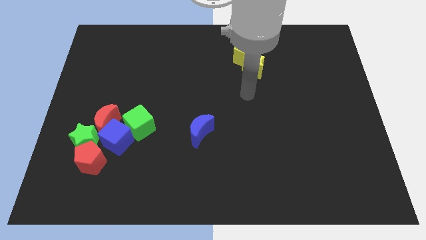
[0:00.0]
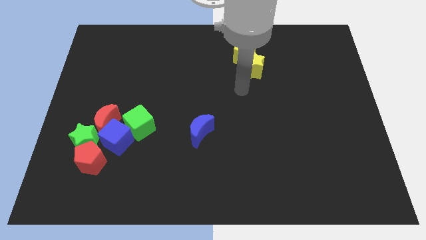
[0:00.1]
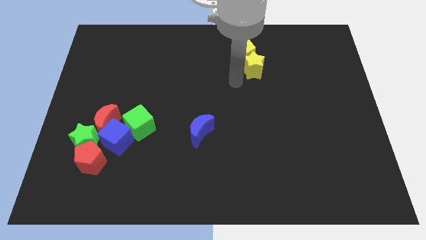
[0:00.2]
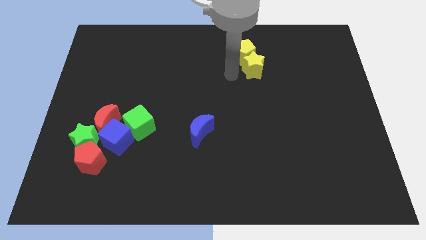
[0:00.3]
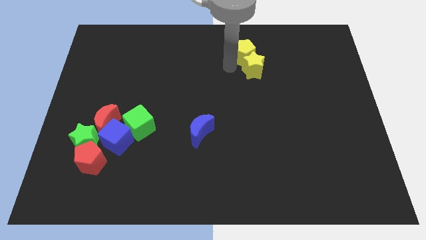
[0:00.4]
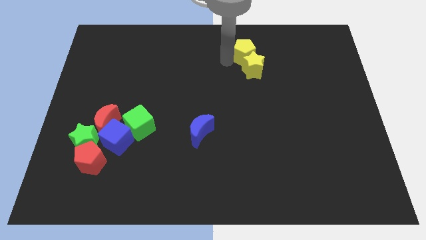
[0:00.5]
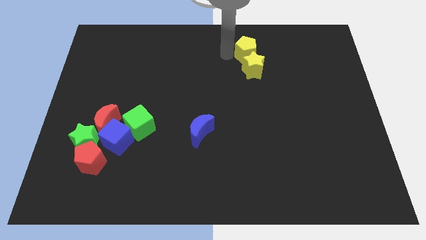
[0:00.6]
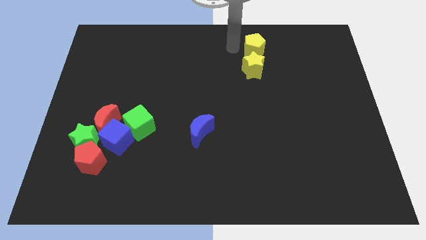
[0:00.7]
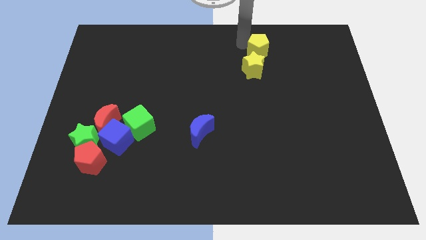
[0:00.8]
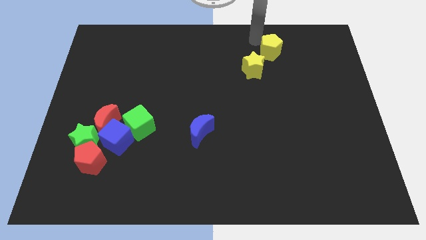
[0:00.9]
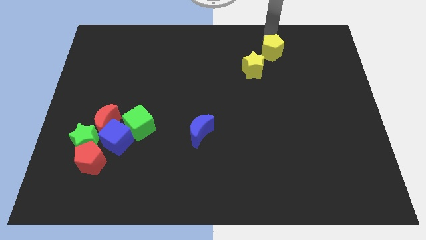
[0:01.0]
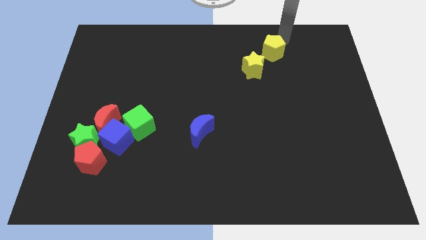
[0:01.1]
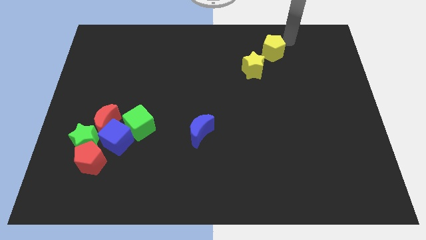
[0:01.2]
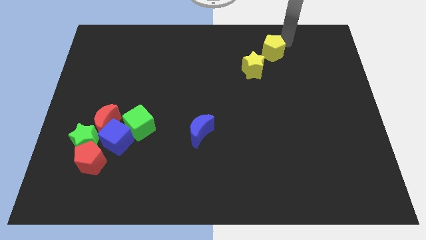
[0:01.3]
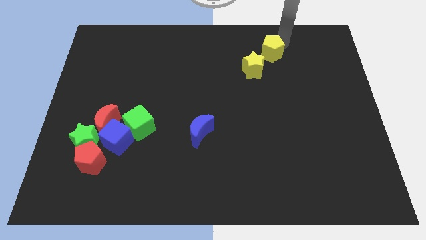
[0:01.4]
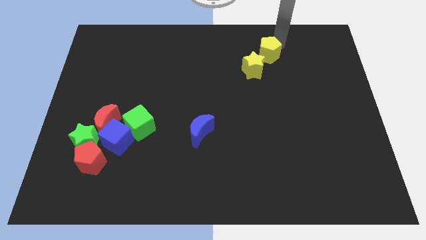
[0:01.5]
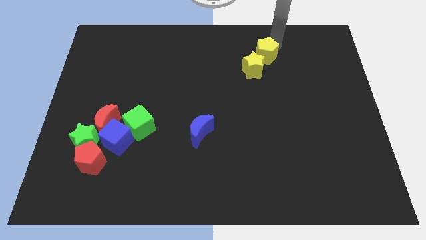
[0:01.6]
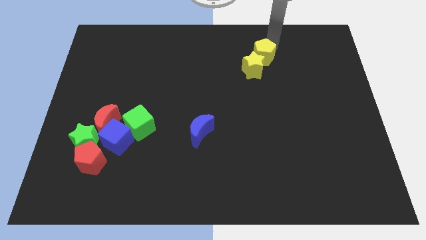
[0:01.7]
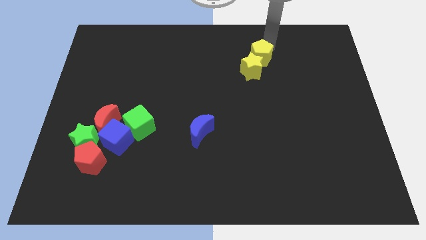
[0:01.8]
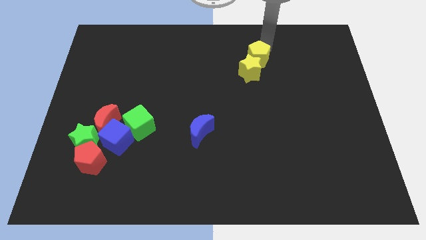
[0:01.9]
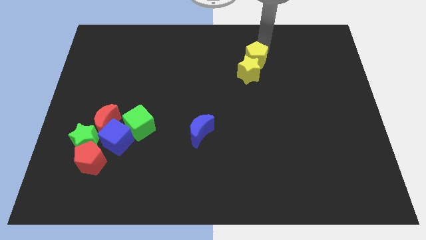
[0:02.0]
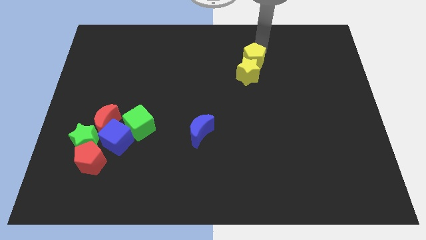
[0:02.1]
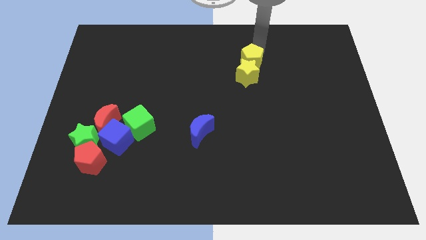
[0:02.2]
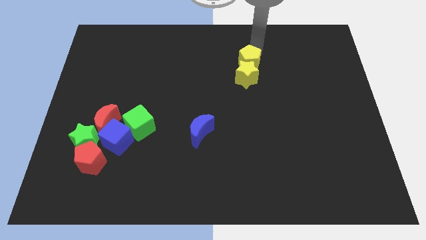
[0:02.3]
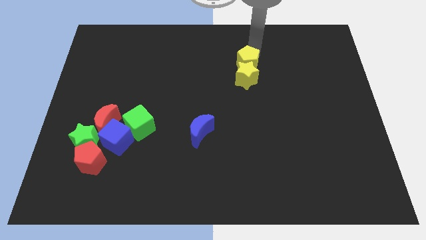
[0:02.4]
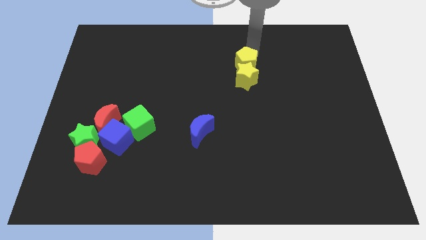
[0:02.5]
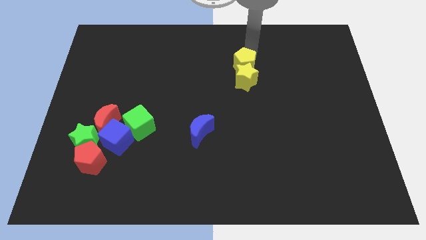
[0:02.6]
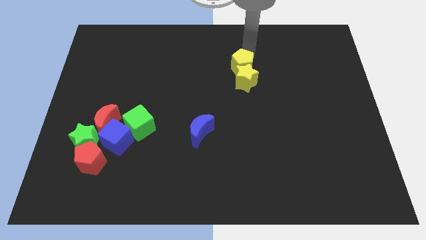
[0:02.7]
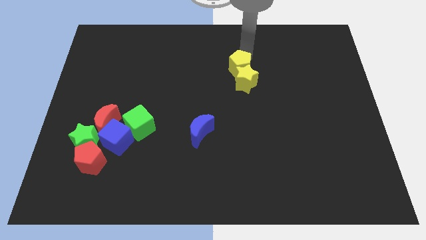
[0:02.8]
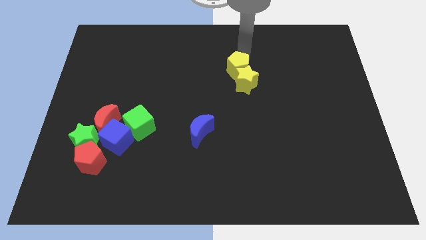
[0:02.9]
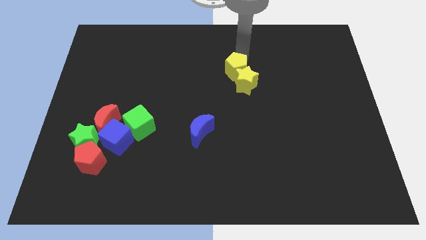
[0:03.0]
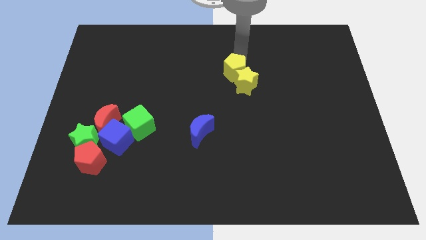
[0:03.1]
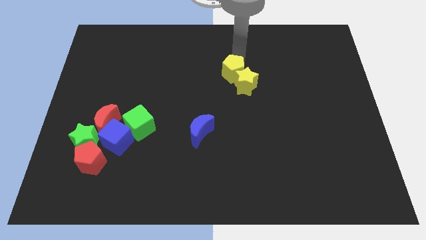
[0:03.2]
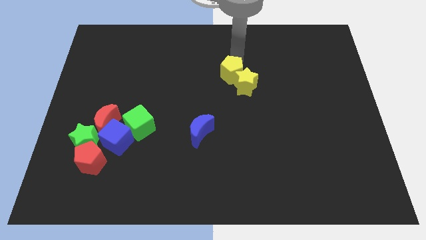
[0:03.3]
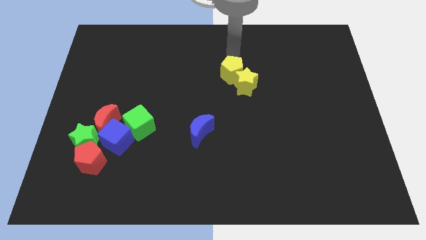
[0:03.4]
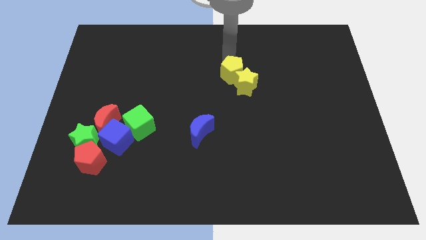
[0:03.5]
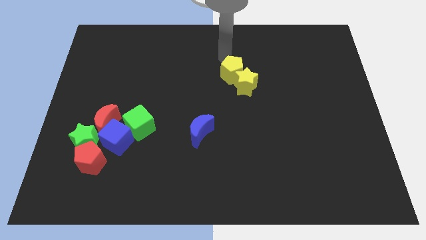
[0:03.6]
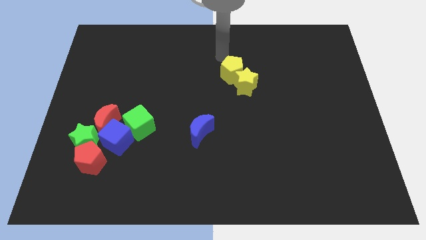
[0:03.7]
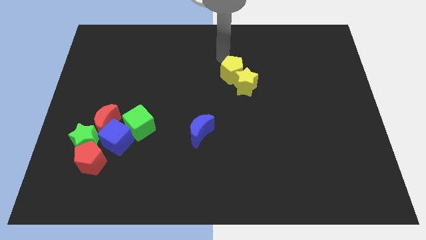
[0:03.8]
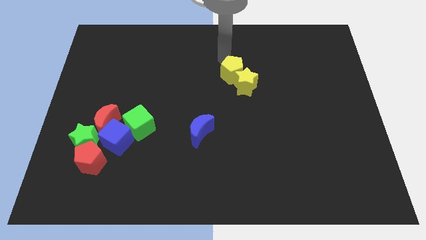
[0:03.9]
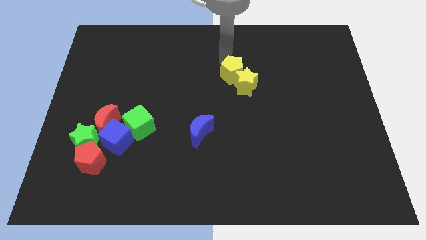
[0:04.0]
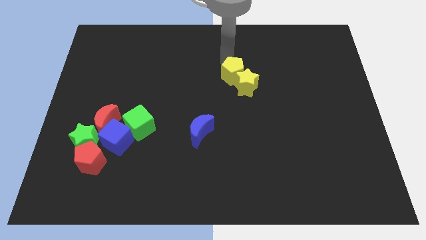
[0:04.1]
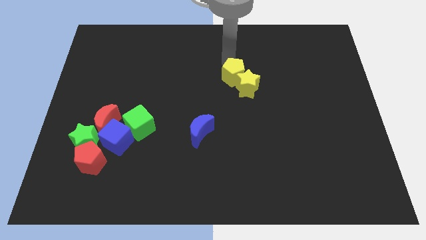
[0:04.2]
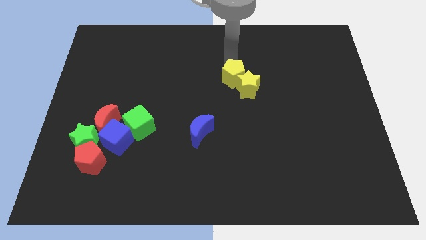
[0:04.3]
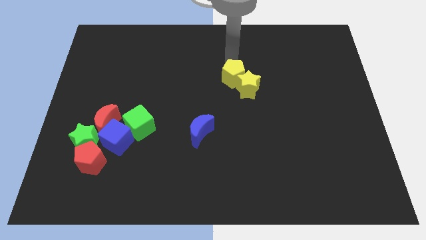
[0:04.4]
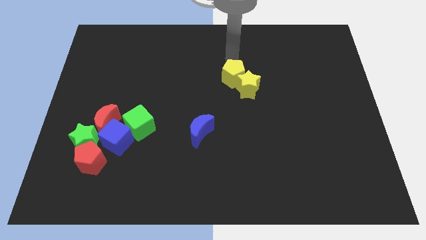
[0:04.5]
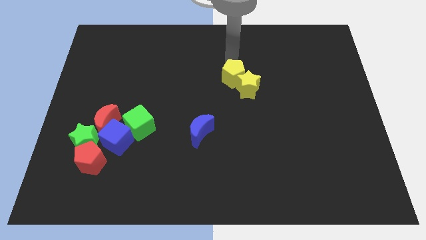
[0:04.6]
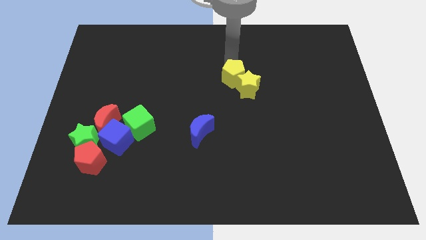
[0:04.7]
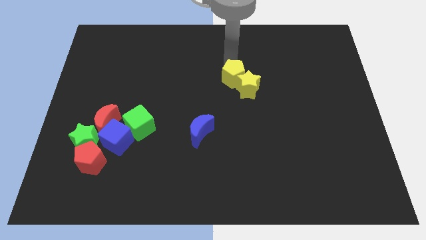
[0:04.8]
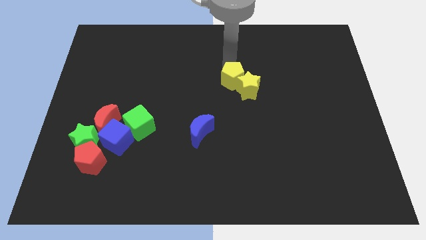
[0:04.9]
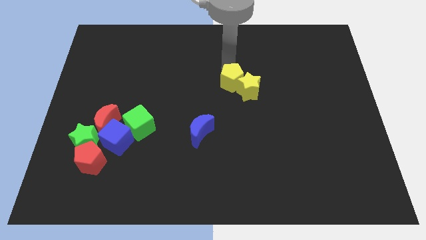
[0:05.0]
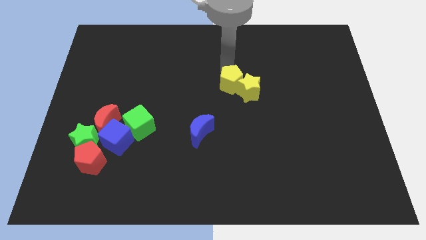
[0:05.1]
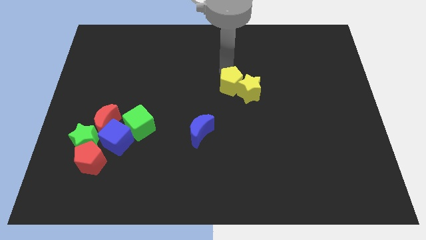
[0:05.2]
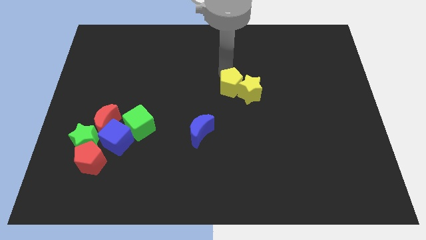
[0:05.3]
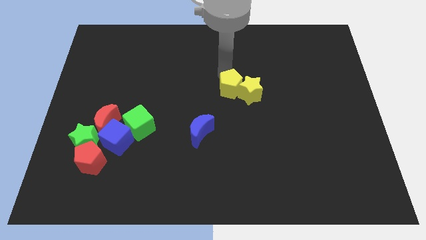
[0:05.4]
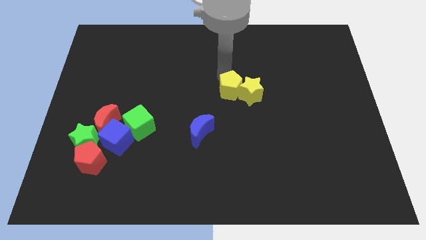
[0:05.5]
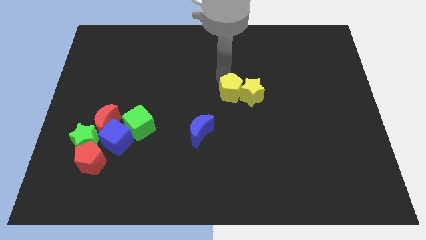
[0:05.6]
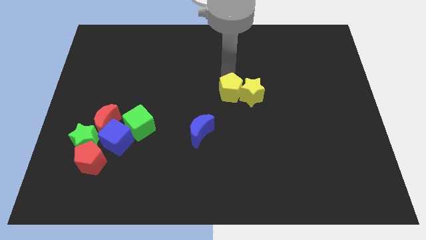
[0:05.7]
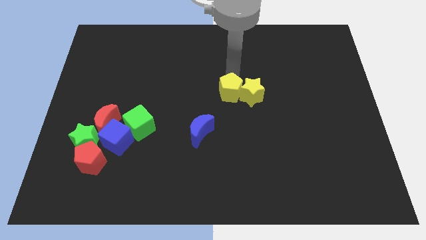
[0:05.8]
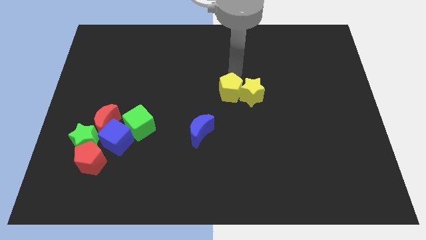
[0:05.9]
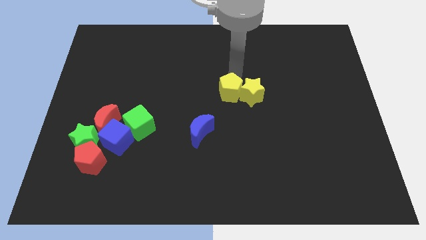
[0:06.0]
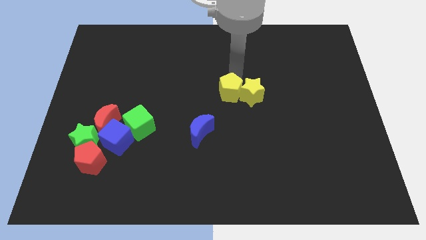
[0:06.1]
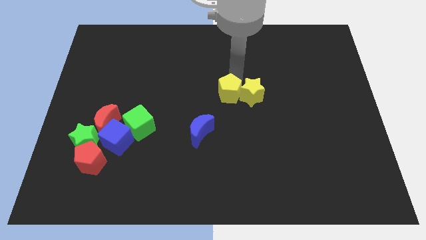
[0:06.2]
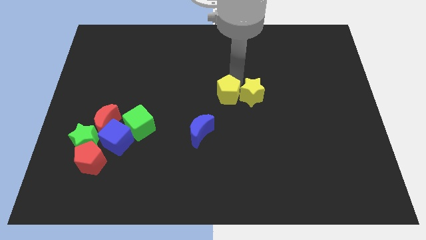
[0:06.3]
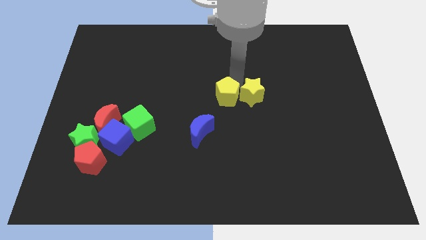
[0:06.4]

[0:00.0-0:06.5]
put the yellow pentagon to the top right side of the blue moon
